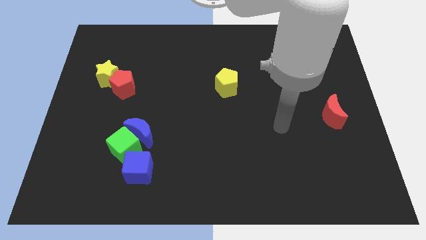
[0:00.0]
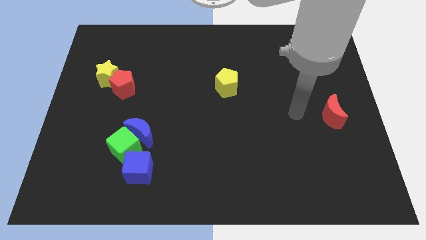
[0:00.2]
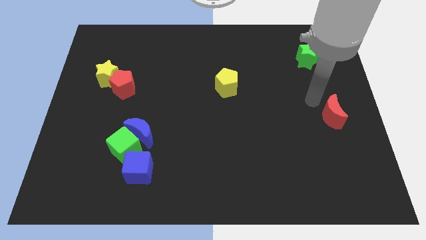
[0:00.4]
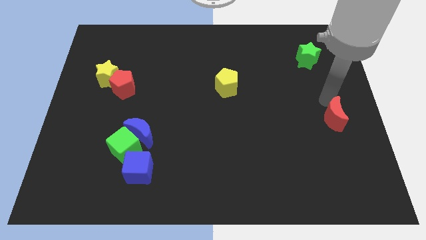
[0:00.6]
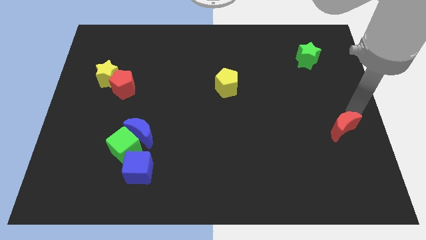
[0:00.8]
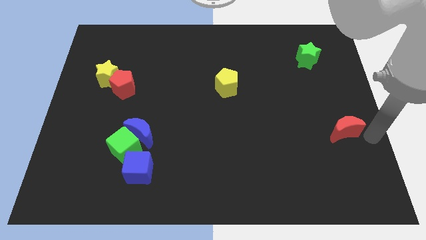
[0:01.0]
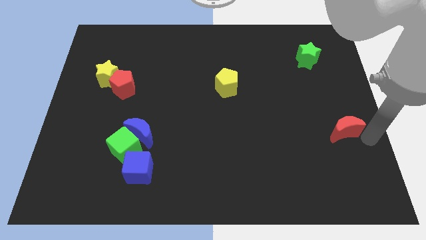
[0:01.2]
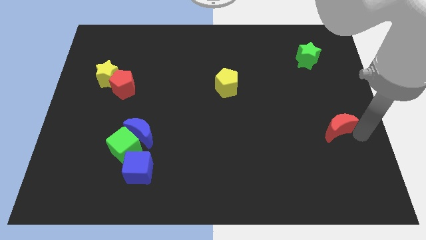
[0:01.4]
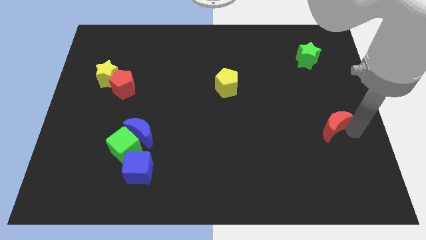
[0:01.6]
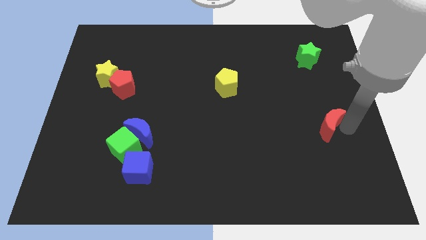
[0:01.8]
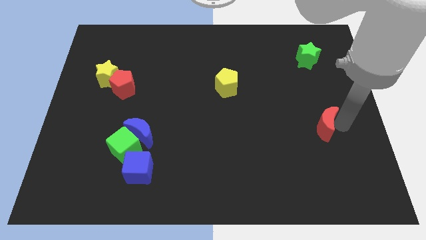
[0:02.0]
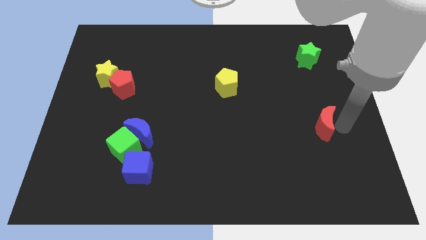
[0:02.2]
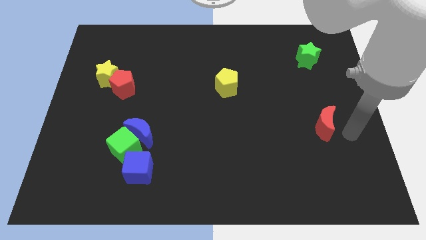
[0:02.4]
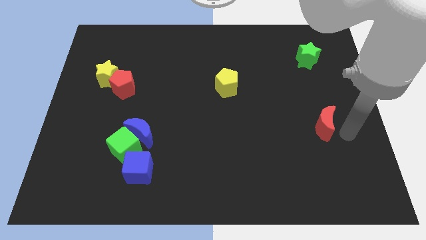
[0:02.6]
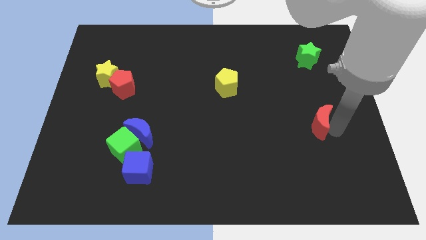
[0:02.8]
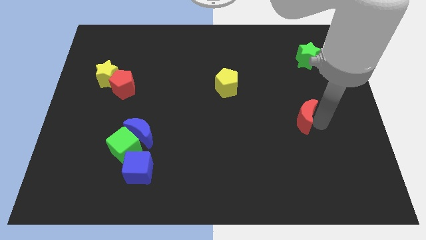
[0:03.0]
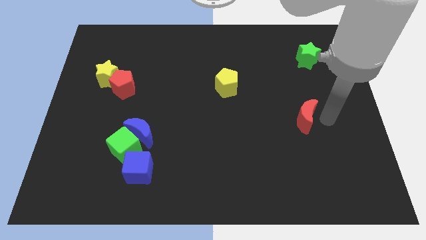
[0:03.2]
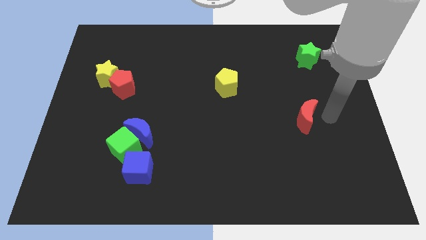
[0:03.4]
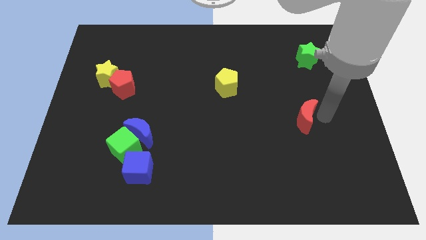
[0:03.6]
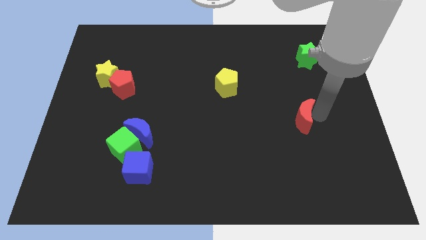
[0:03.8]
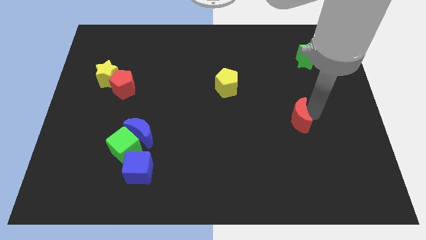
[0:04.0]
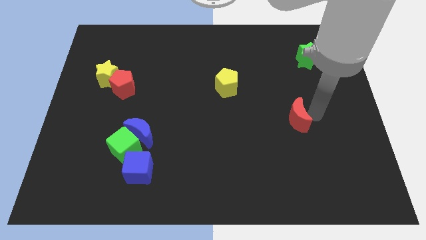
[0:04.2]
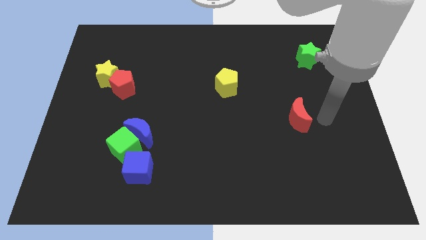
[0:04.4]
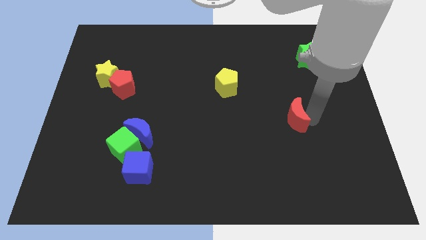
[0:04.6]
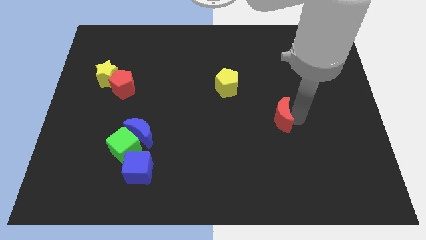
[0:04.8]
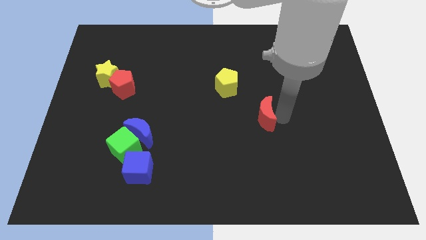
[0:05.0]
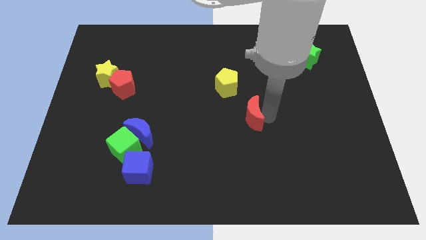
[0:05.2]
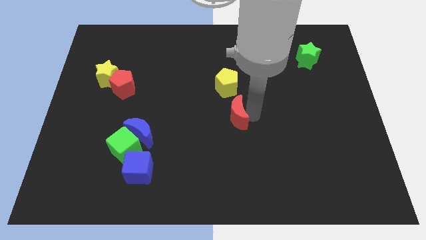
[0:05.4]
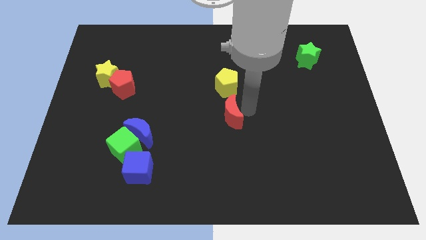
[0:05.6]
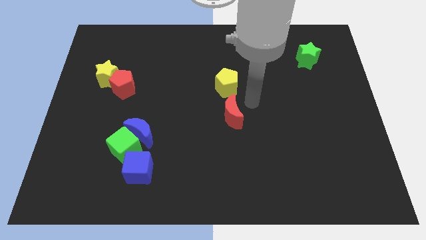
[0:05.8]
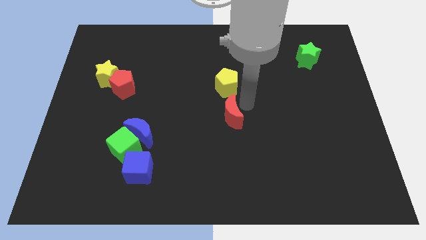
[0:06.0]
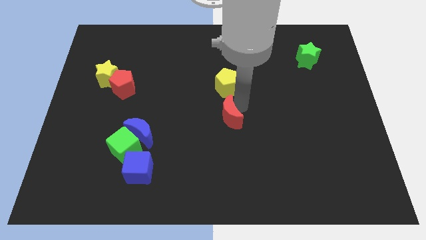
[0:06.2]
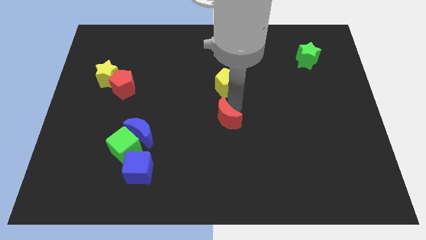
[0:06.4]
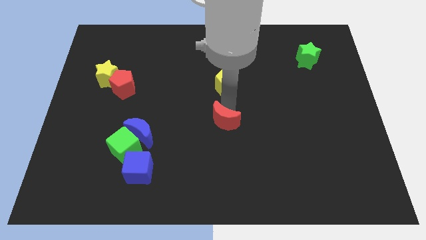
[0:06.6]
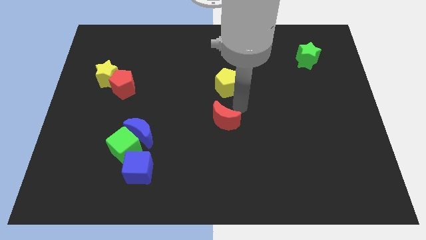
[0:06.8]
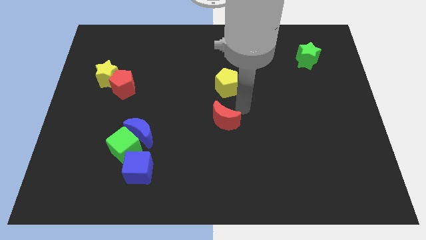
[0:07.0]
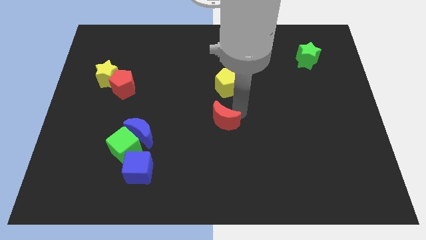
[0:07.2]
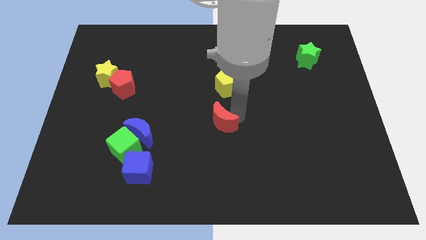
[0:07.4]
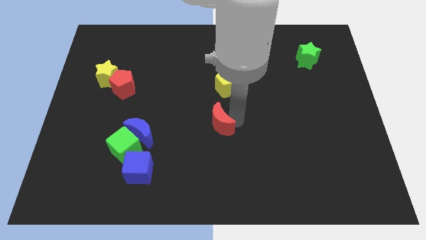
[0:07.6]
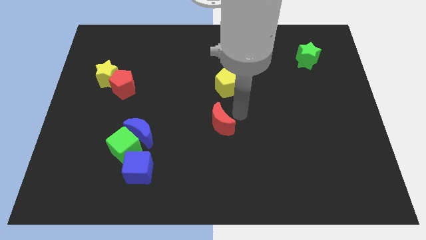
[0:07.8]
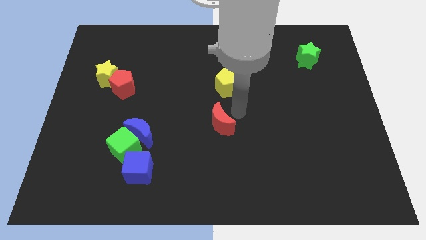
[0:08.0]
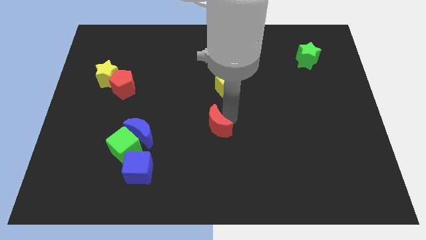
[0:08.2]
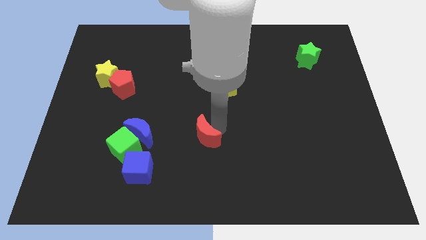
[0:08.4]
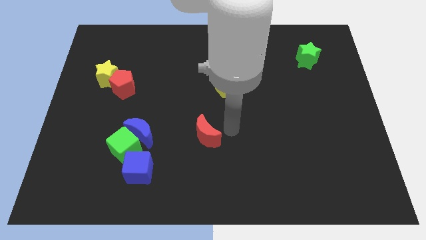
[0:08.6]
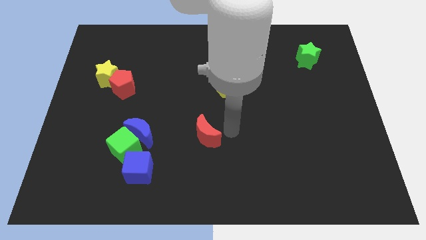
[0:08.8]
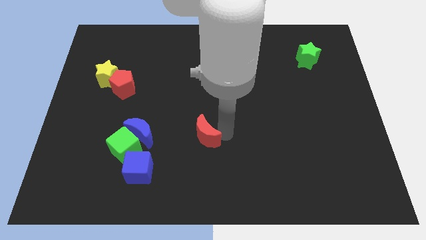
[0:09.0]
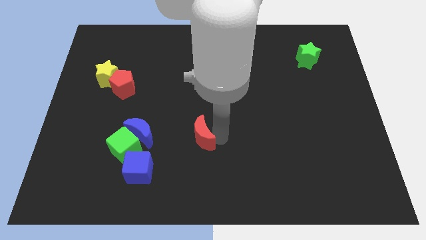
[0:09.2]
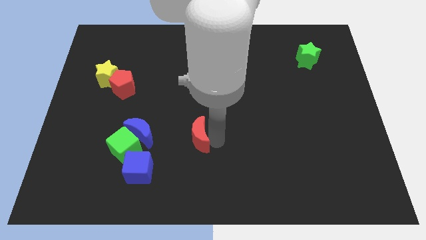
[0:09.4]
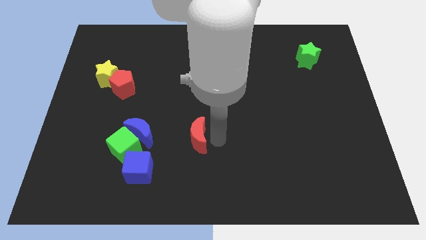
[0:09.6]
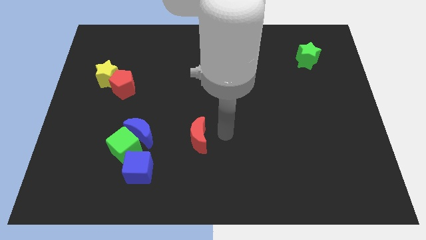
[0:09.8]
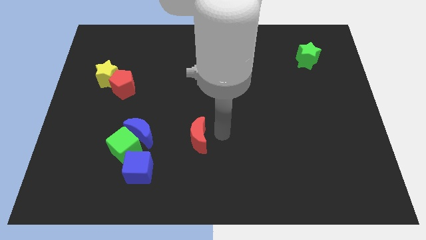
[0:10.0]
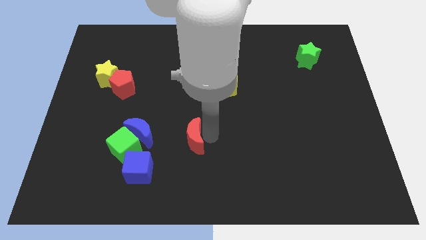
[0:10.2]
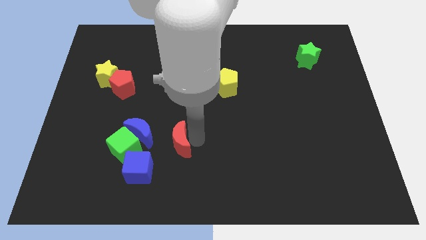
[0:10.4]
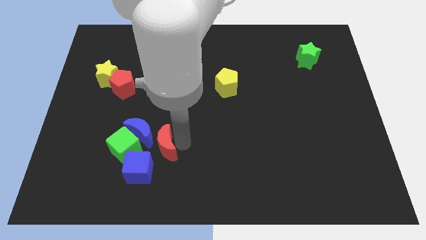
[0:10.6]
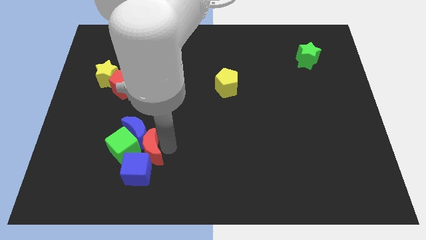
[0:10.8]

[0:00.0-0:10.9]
push the red moon to the green cube

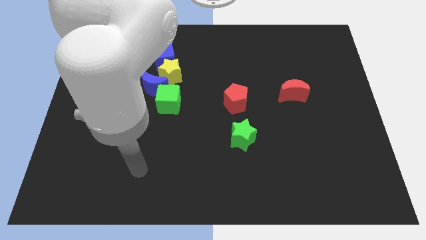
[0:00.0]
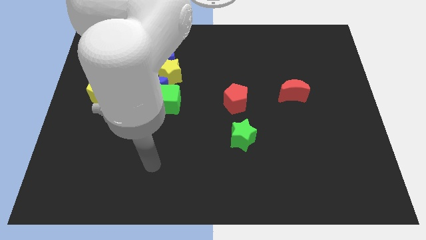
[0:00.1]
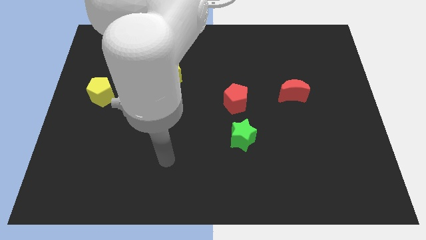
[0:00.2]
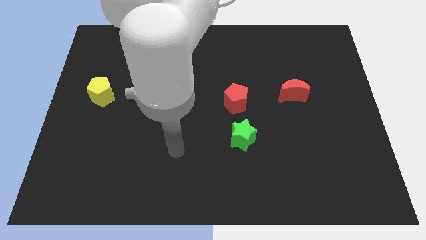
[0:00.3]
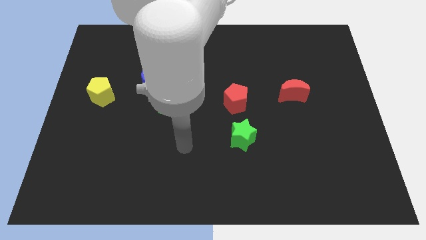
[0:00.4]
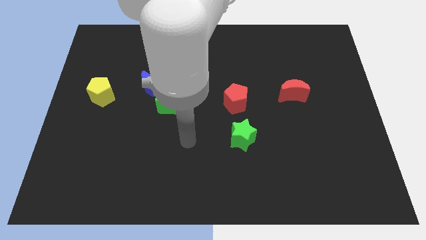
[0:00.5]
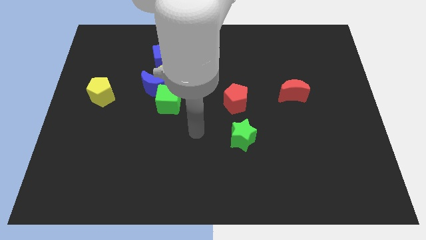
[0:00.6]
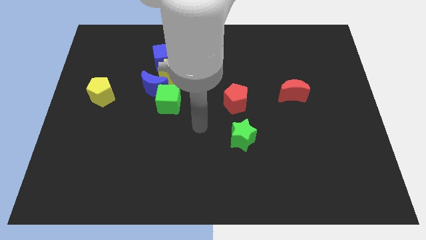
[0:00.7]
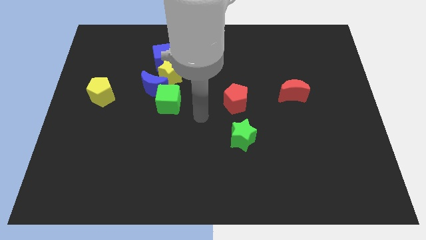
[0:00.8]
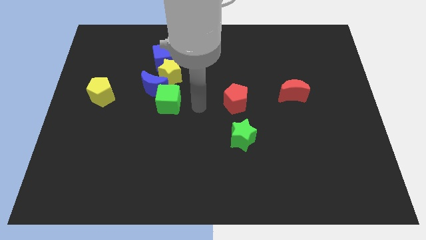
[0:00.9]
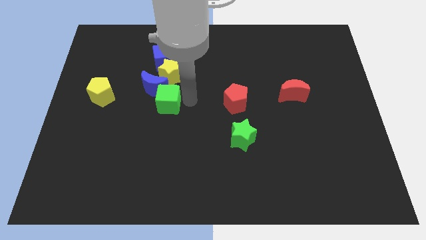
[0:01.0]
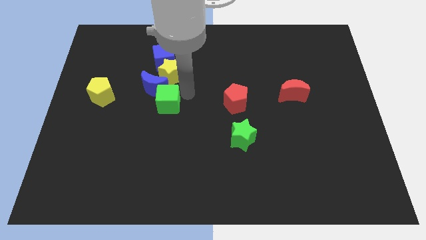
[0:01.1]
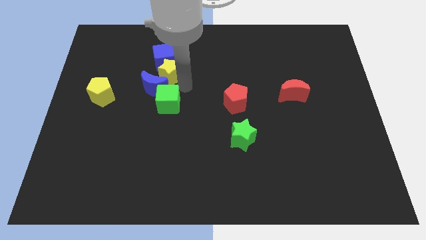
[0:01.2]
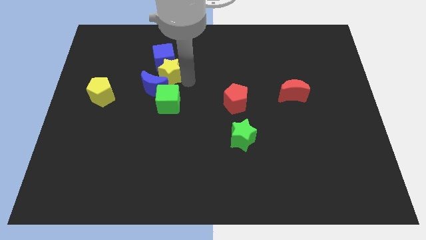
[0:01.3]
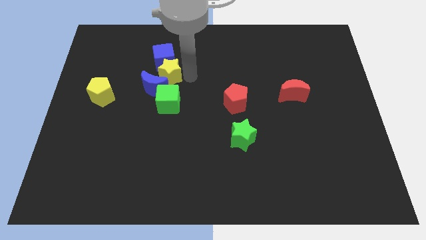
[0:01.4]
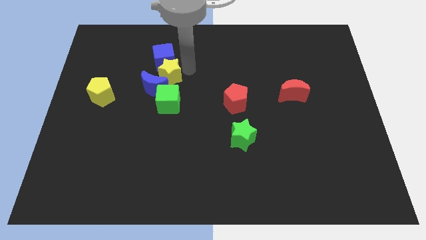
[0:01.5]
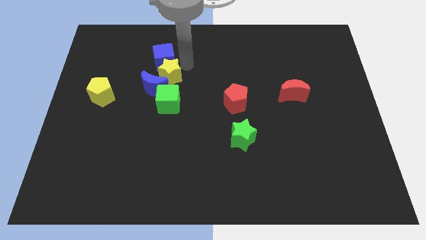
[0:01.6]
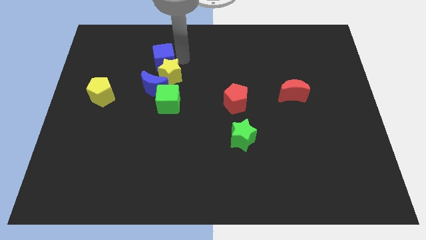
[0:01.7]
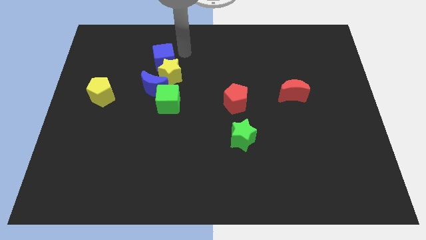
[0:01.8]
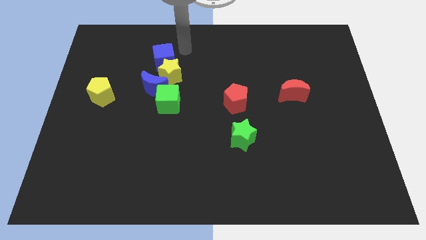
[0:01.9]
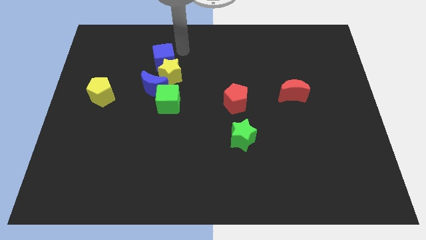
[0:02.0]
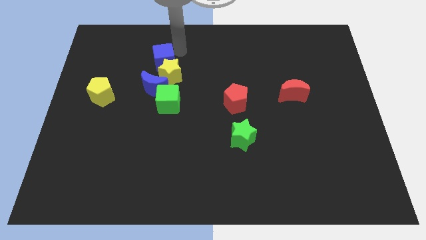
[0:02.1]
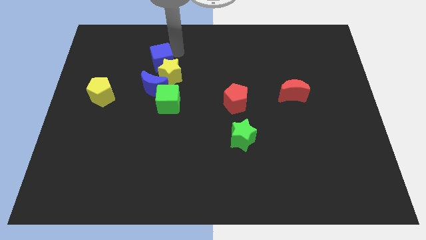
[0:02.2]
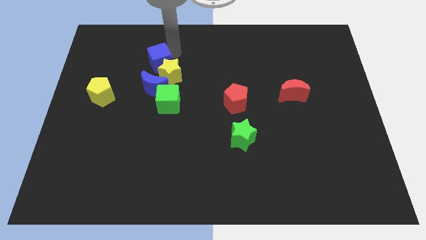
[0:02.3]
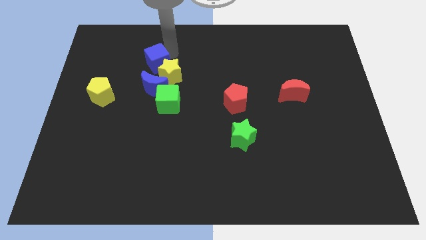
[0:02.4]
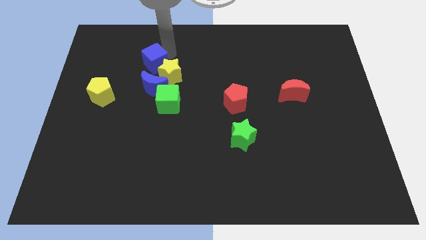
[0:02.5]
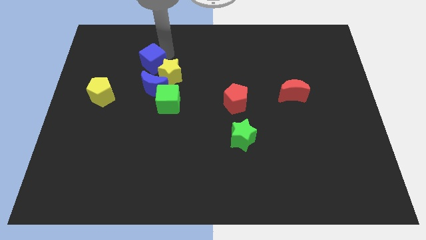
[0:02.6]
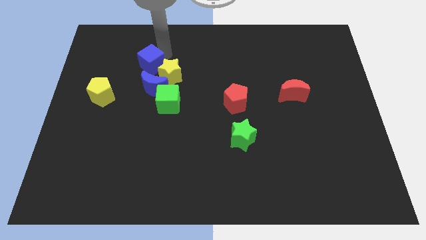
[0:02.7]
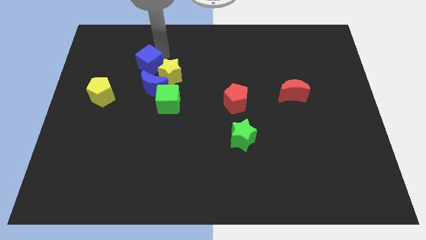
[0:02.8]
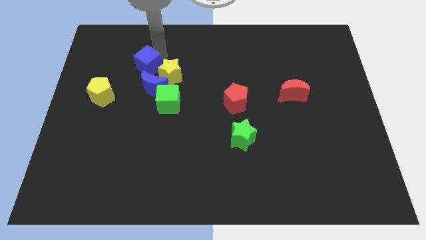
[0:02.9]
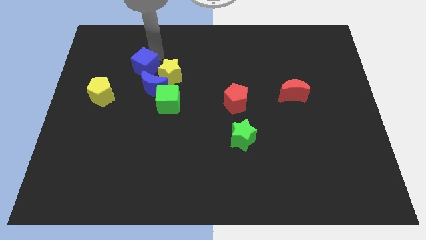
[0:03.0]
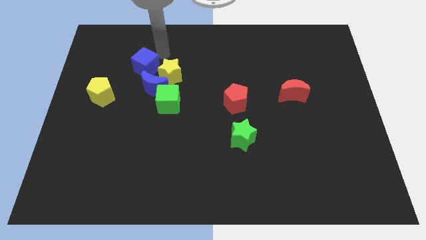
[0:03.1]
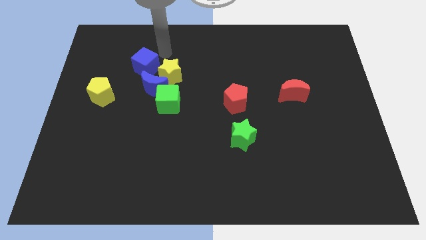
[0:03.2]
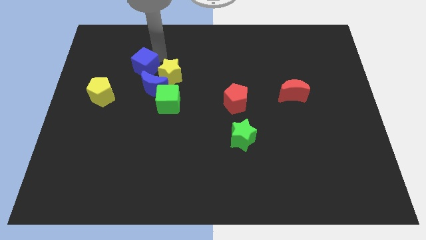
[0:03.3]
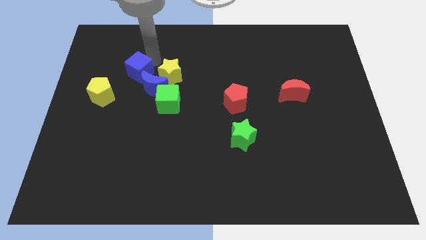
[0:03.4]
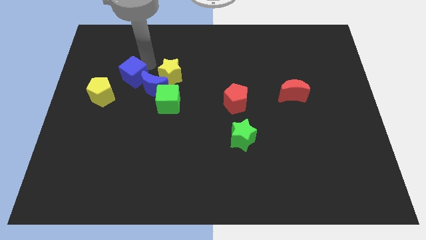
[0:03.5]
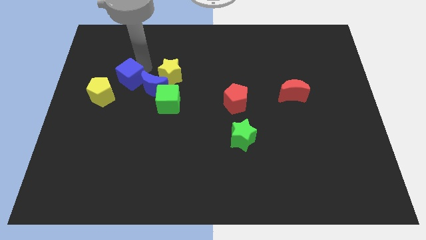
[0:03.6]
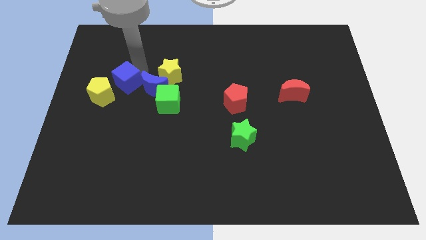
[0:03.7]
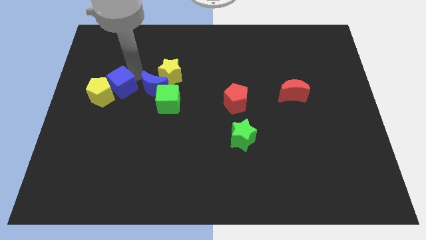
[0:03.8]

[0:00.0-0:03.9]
put the blue cube towards the yellow pentagon
